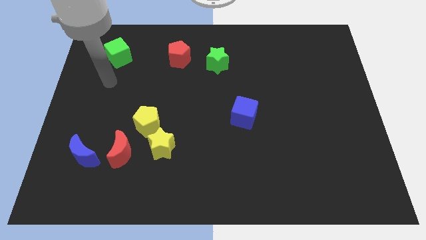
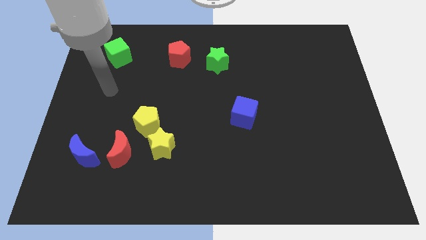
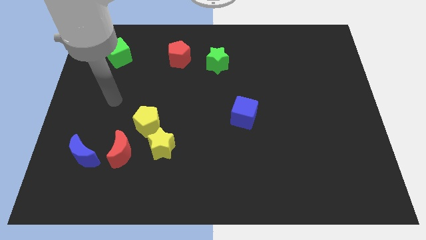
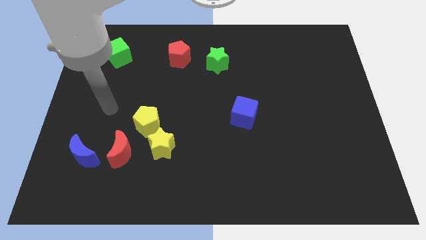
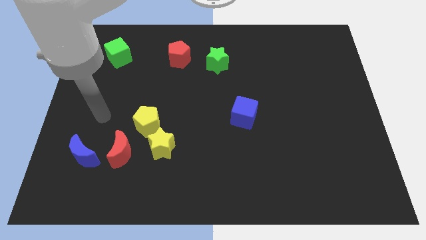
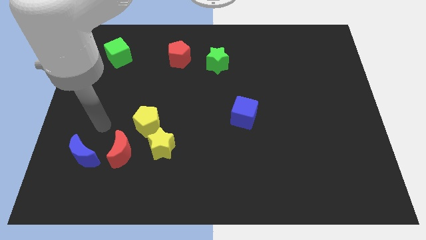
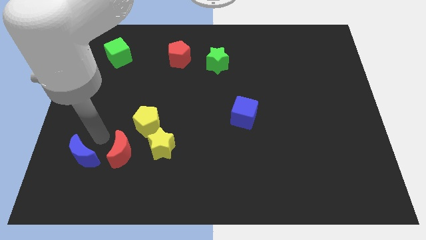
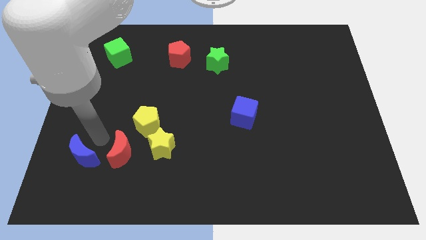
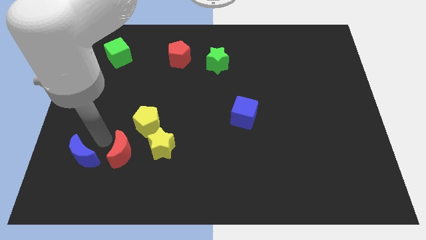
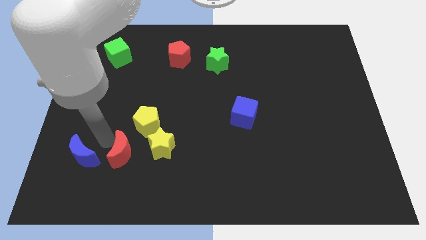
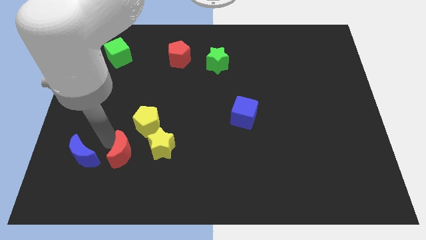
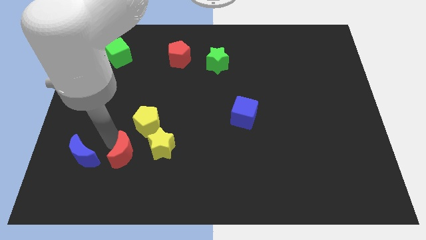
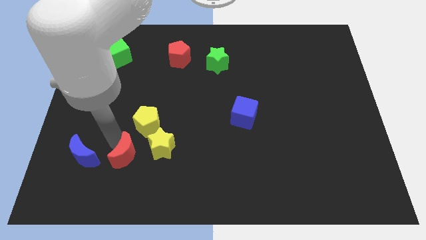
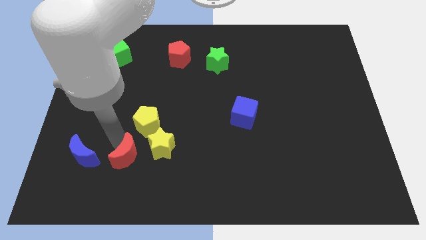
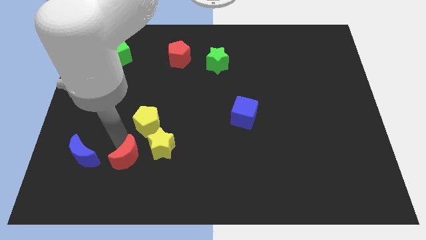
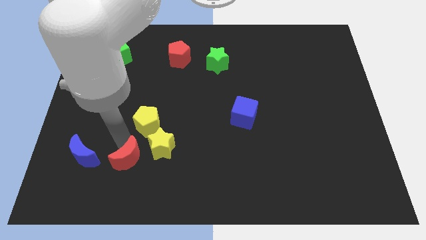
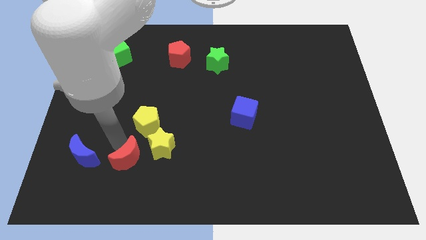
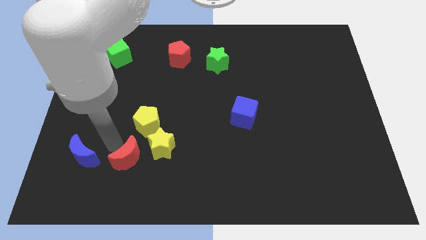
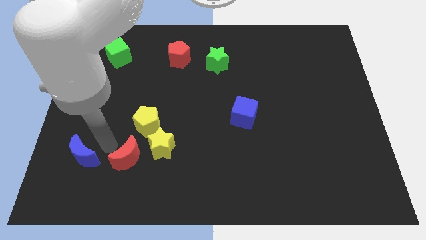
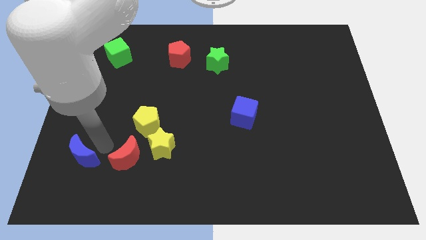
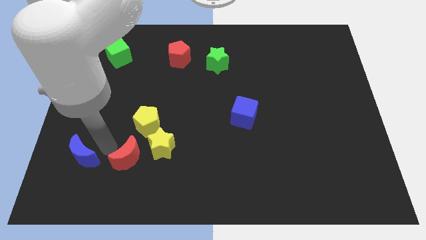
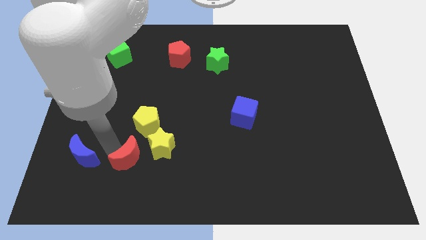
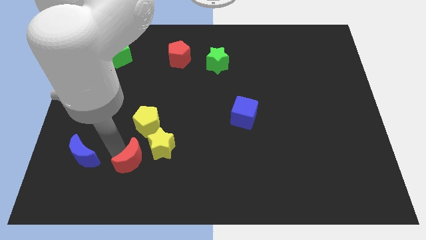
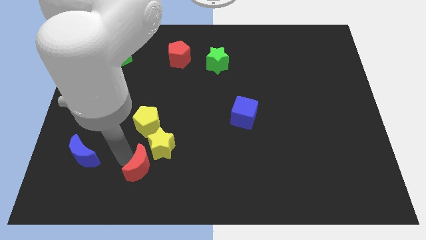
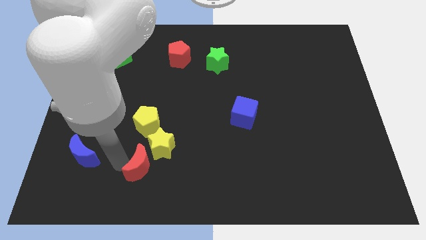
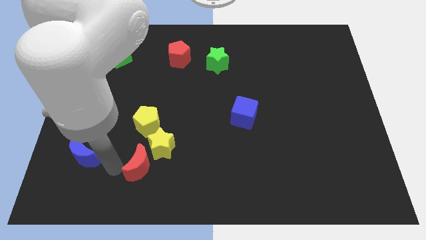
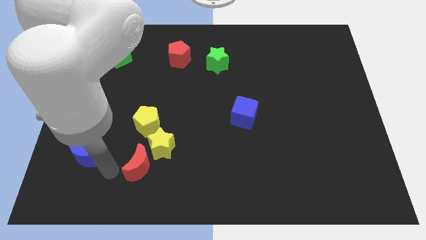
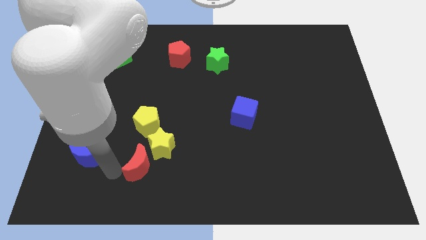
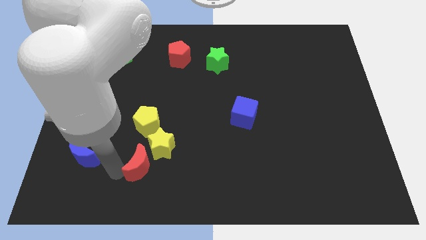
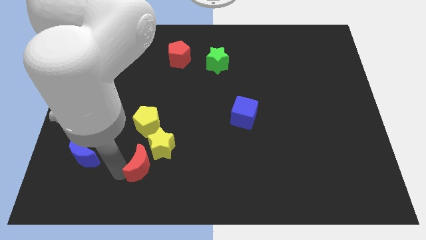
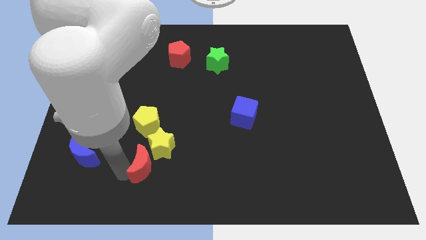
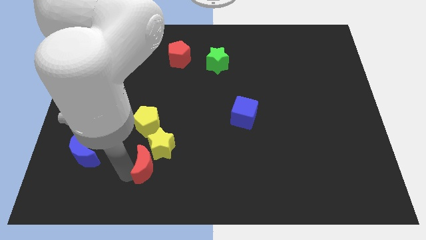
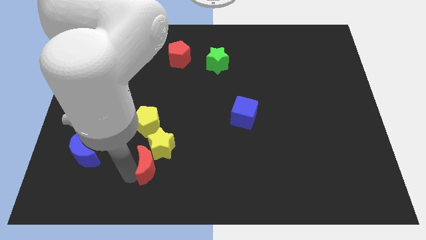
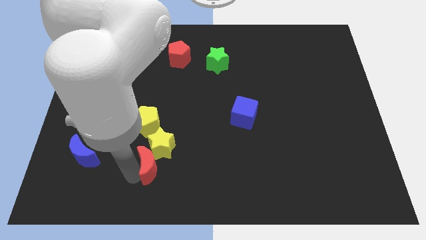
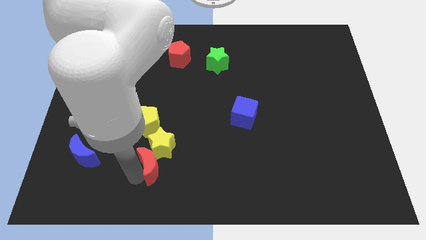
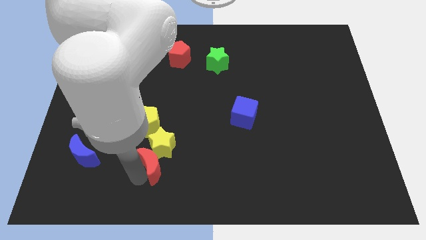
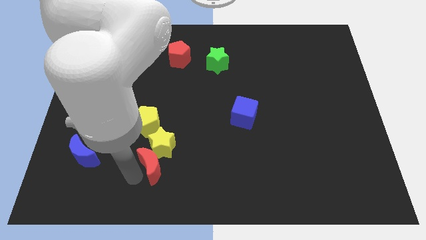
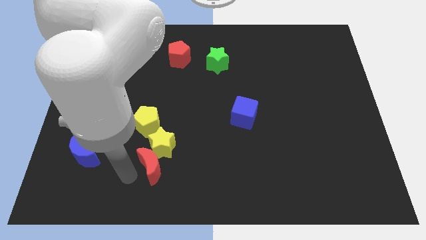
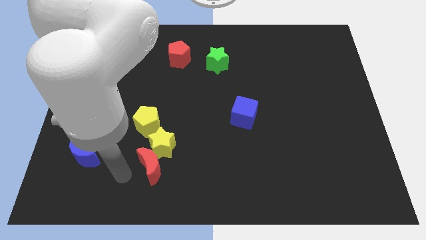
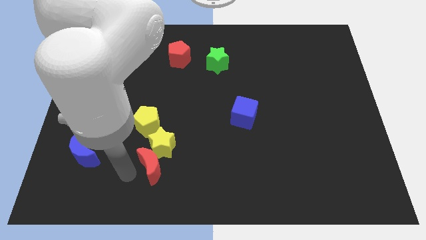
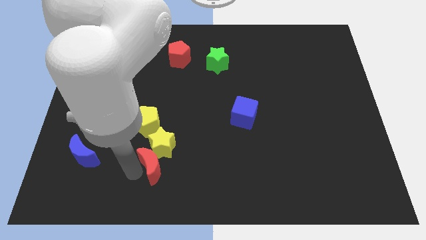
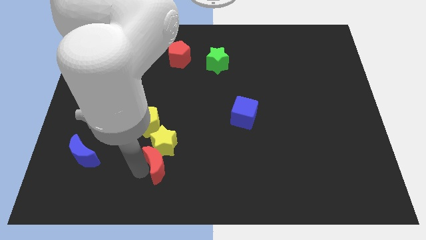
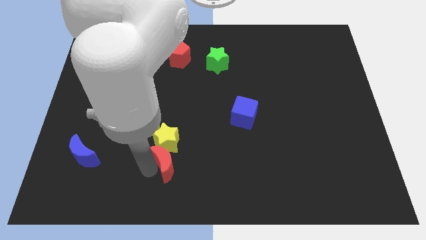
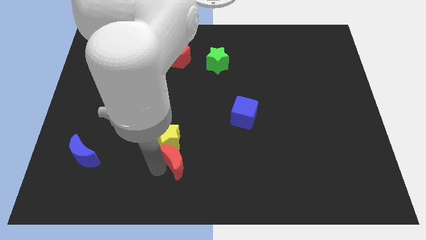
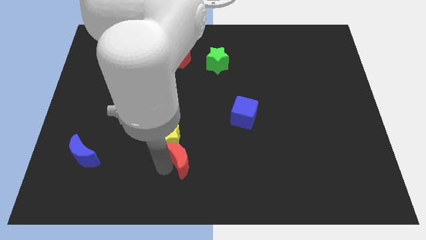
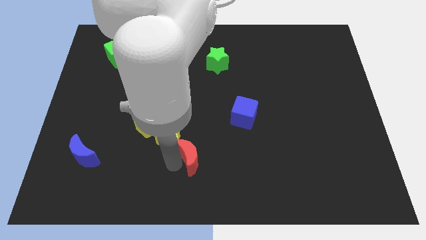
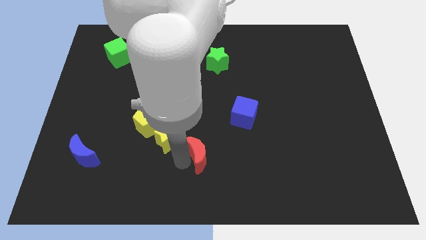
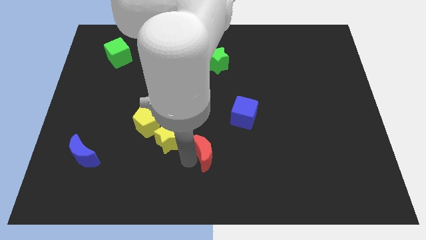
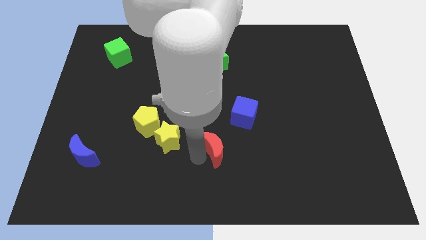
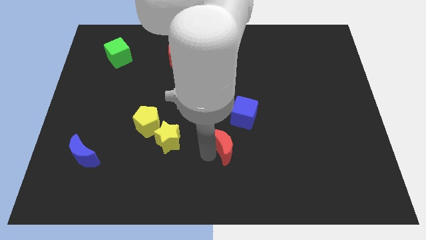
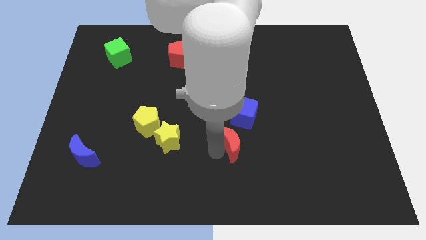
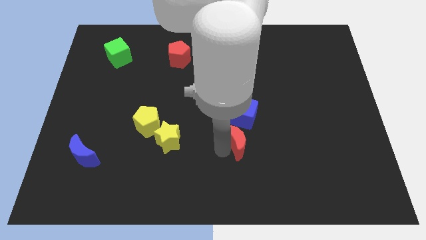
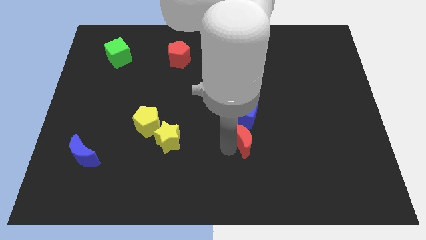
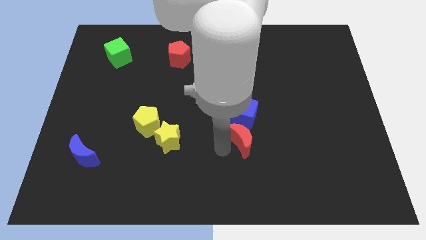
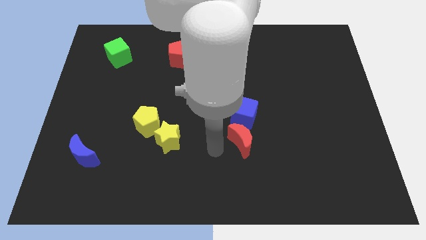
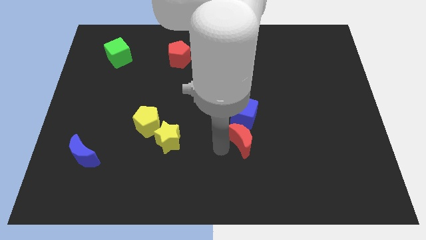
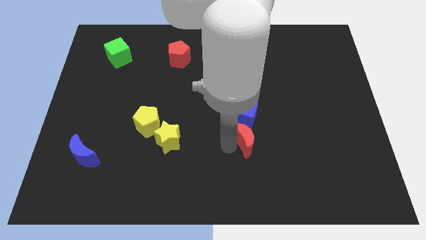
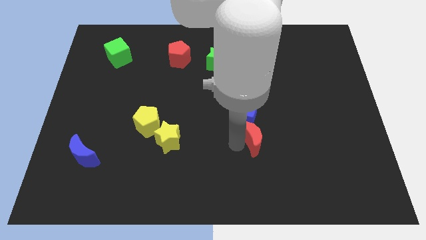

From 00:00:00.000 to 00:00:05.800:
slide the red moon to the bottom right side of the blue cube
